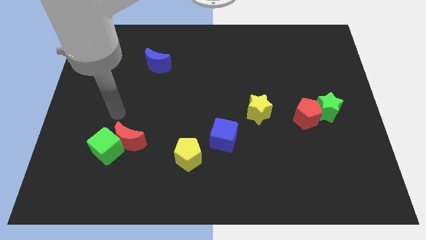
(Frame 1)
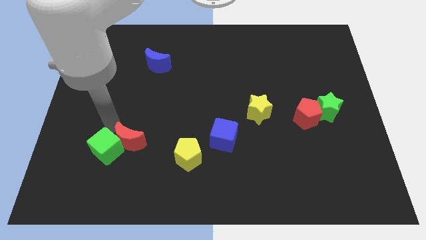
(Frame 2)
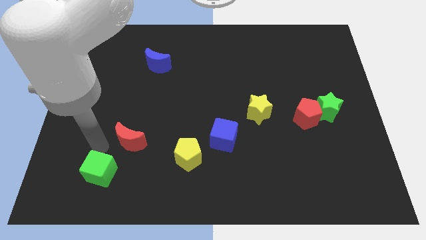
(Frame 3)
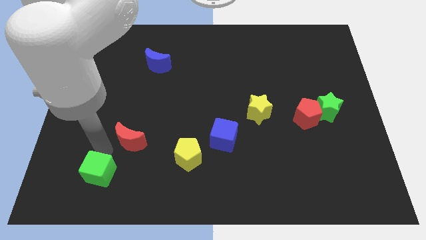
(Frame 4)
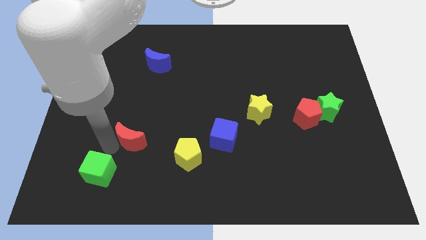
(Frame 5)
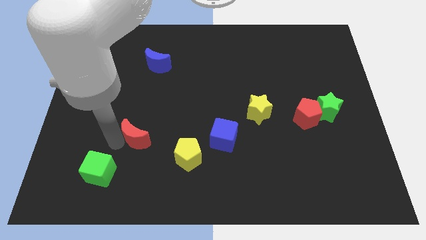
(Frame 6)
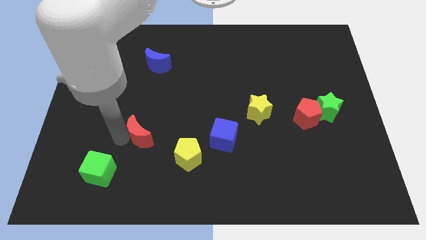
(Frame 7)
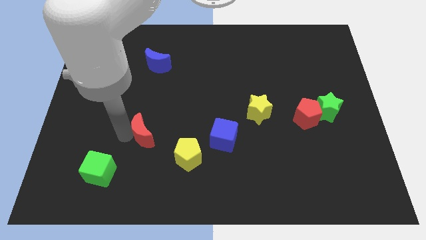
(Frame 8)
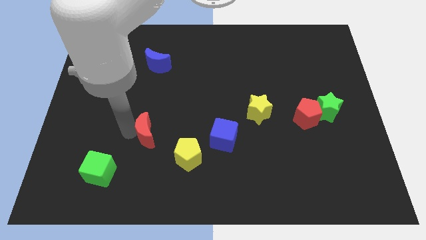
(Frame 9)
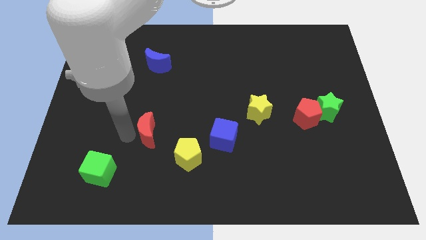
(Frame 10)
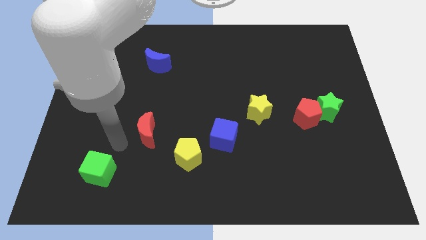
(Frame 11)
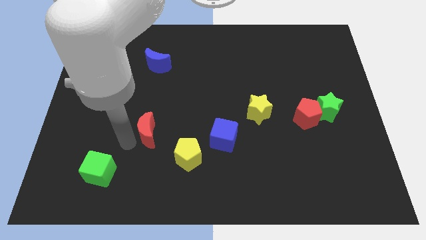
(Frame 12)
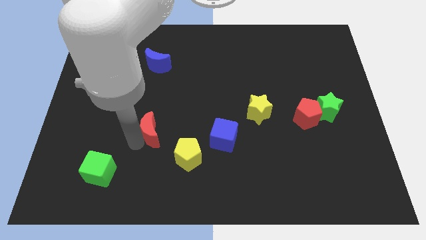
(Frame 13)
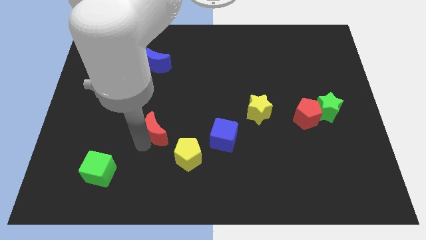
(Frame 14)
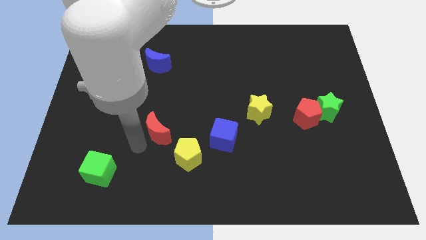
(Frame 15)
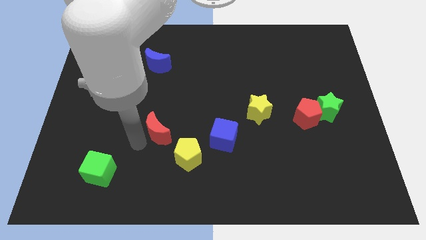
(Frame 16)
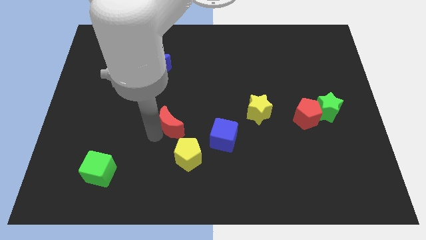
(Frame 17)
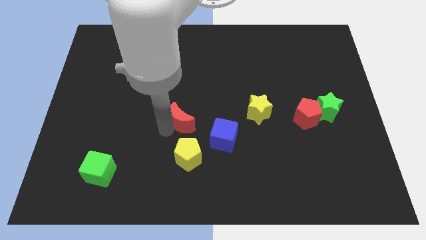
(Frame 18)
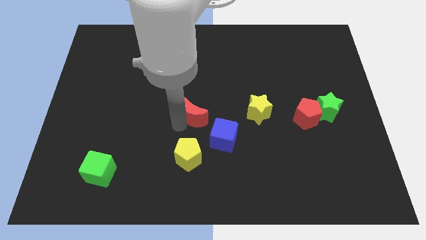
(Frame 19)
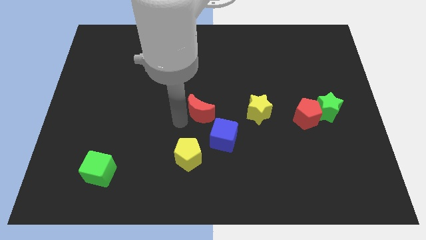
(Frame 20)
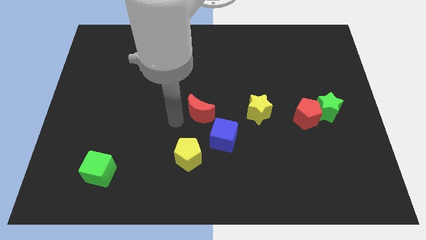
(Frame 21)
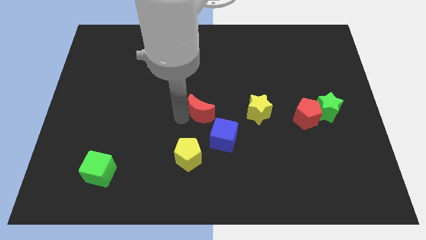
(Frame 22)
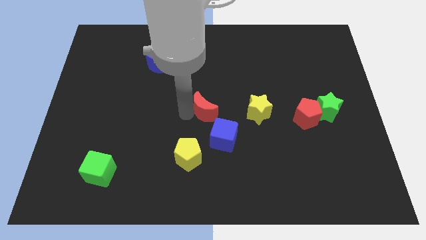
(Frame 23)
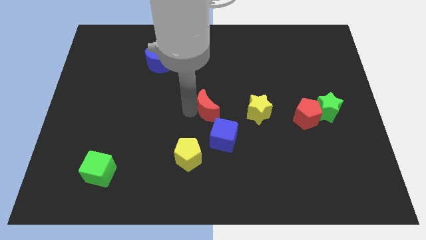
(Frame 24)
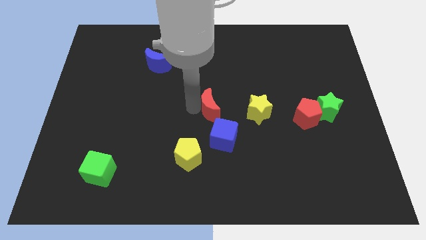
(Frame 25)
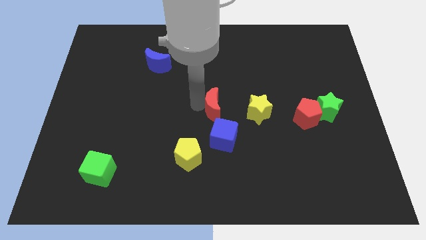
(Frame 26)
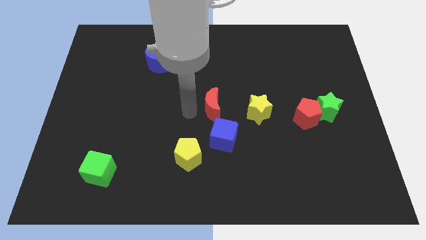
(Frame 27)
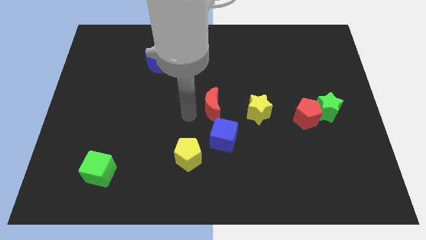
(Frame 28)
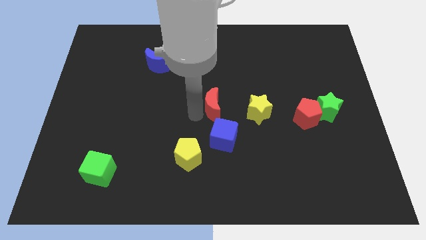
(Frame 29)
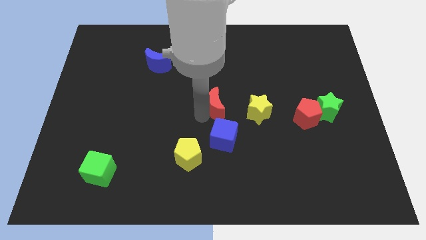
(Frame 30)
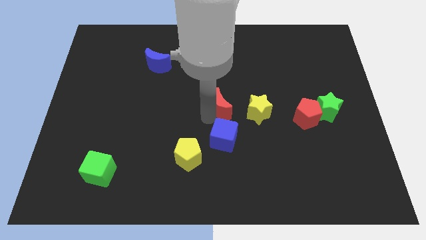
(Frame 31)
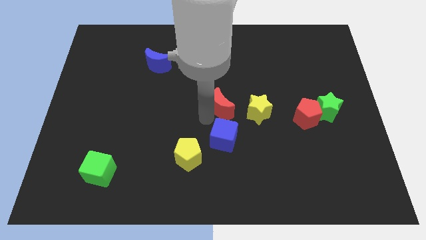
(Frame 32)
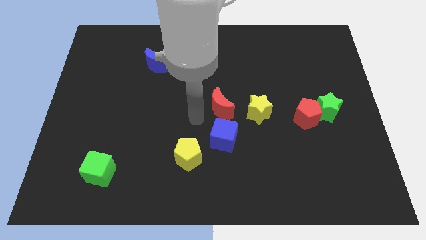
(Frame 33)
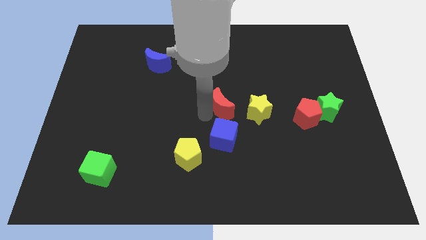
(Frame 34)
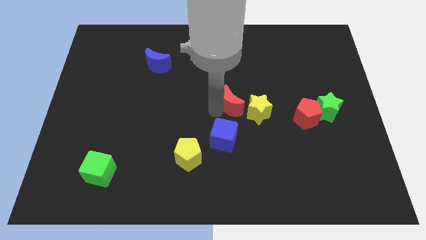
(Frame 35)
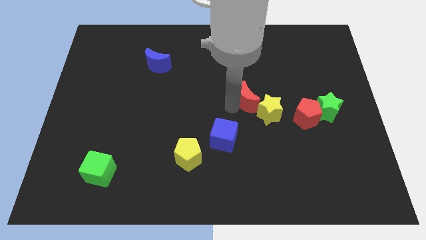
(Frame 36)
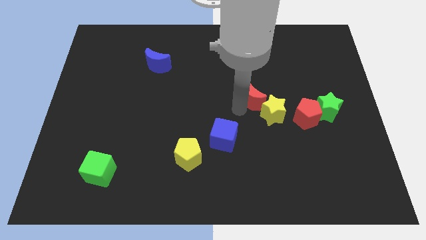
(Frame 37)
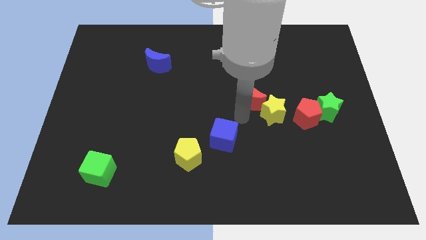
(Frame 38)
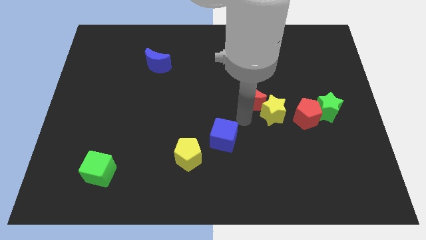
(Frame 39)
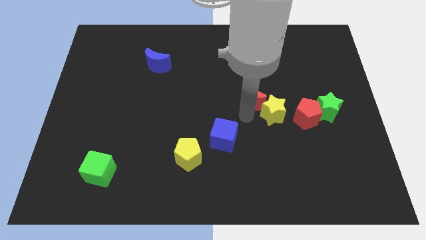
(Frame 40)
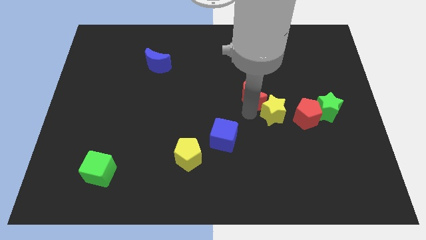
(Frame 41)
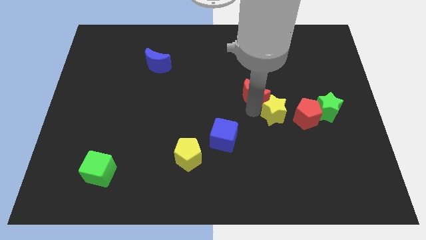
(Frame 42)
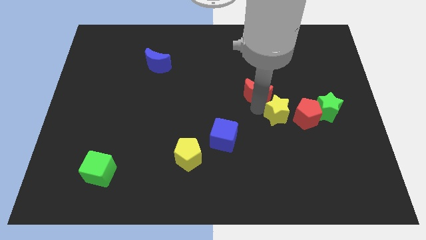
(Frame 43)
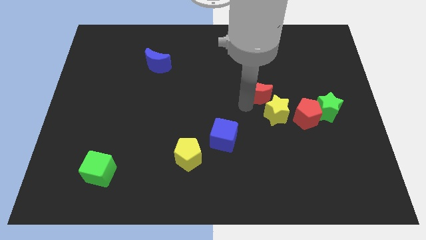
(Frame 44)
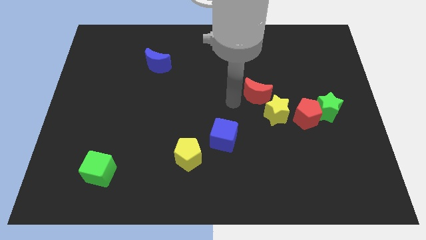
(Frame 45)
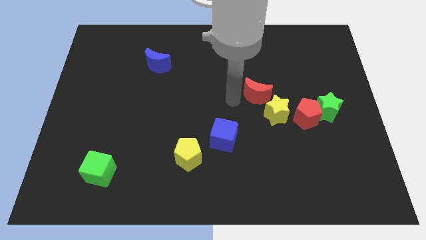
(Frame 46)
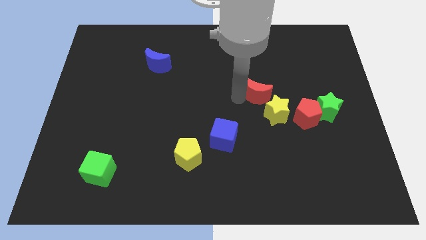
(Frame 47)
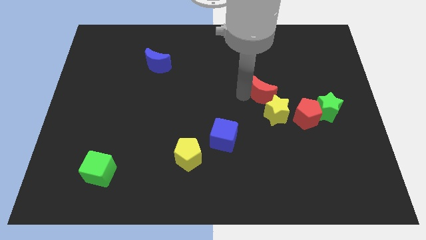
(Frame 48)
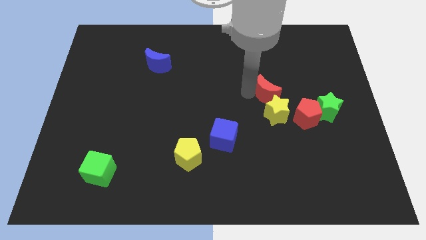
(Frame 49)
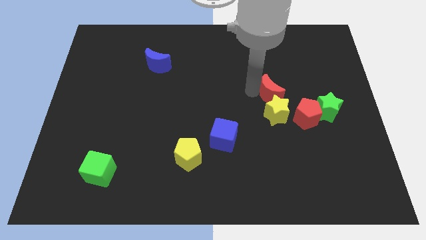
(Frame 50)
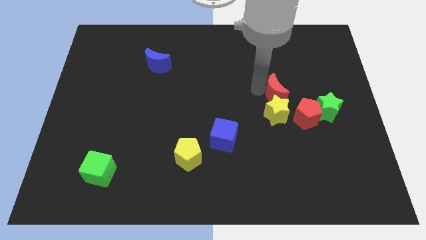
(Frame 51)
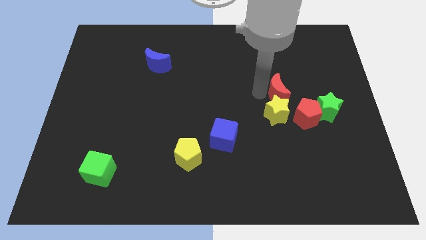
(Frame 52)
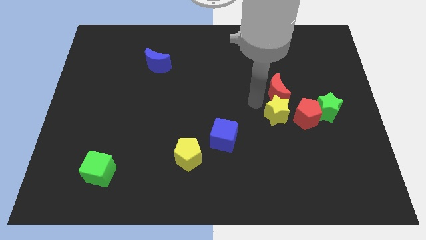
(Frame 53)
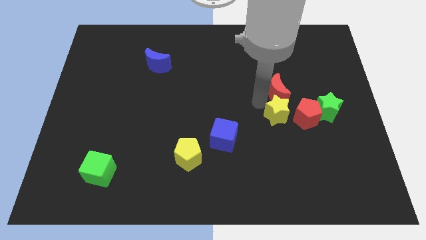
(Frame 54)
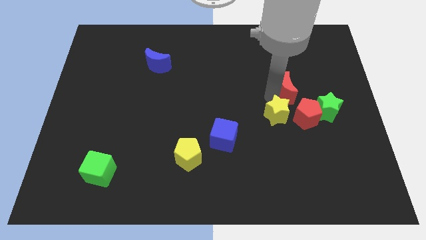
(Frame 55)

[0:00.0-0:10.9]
slide the red moon to the top of the red pentagon

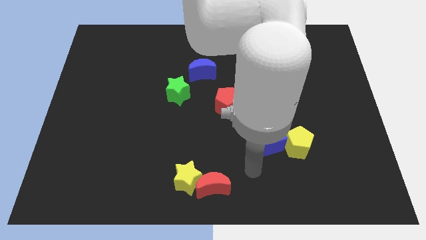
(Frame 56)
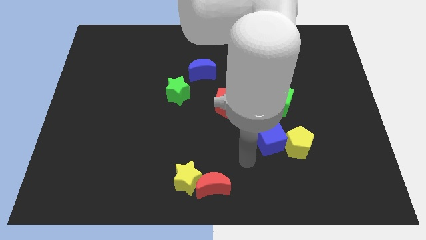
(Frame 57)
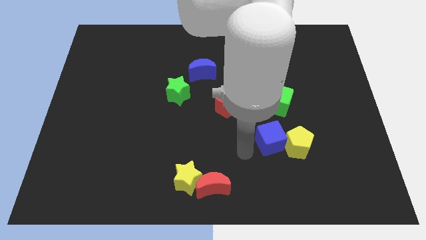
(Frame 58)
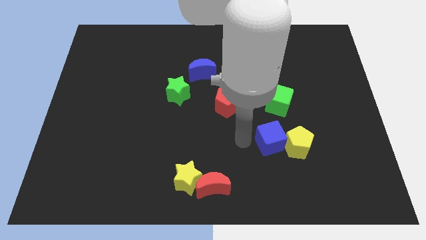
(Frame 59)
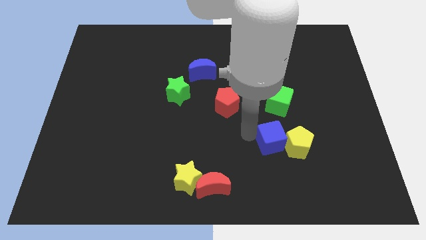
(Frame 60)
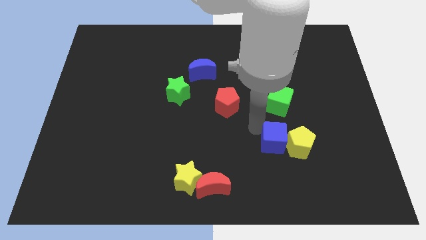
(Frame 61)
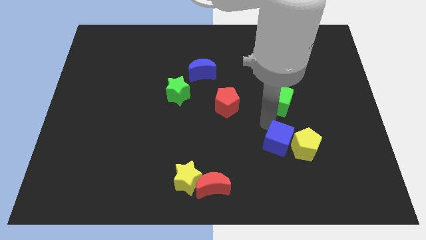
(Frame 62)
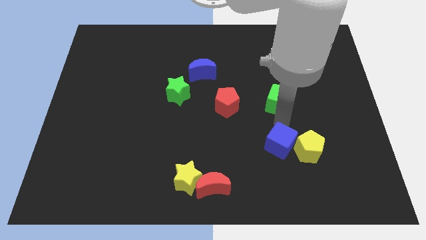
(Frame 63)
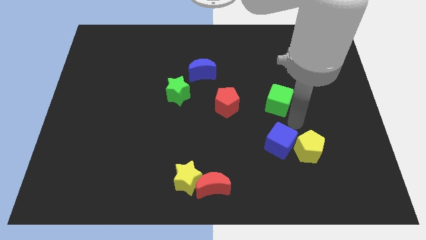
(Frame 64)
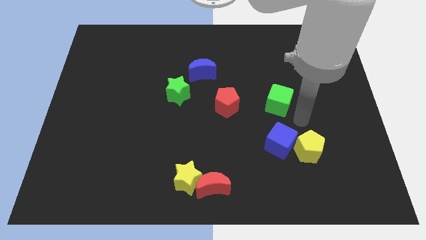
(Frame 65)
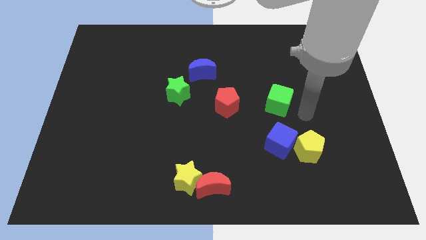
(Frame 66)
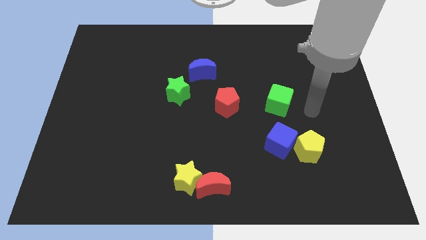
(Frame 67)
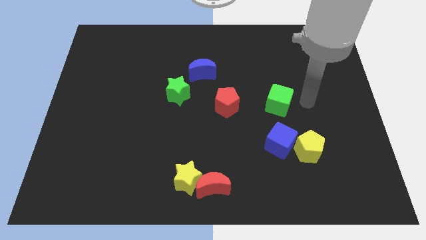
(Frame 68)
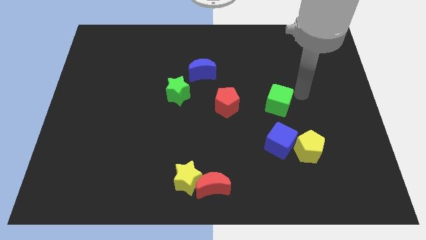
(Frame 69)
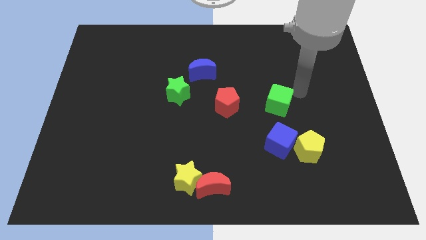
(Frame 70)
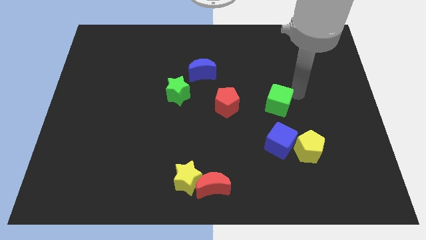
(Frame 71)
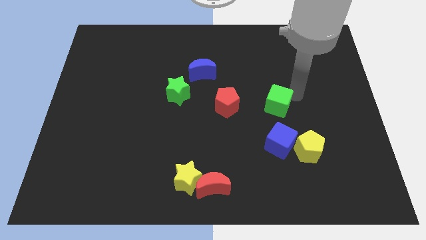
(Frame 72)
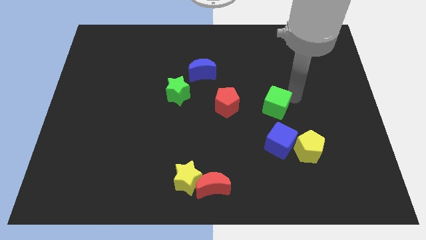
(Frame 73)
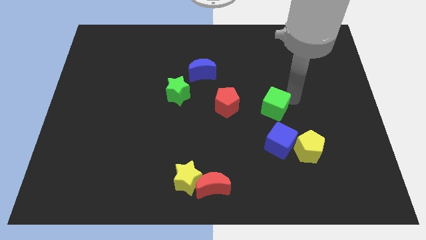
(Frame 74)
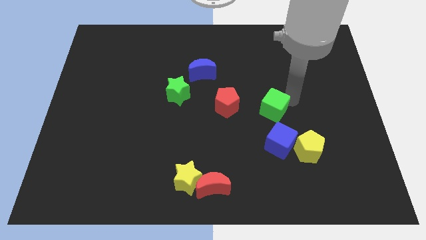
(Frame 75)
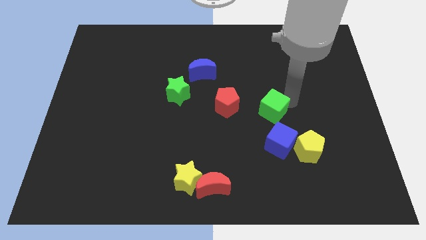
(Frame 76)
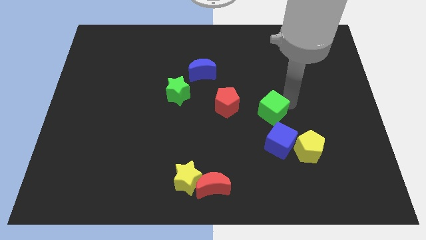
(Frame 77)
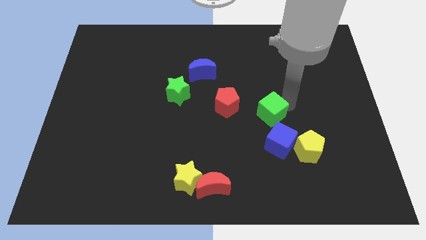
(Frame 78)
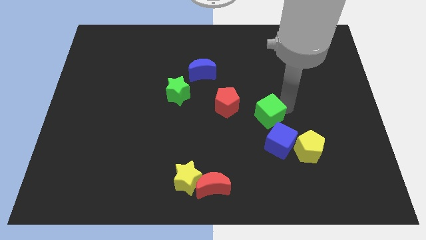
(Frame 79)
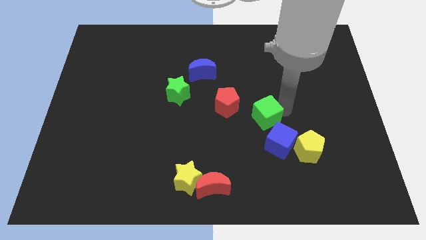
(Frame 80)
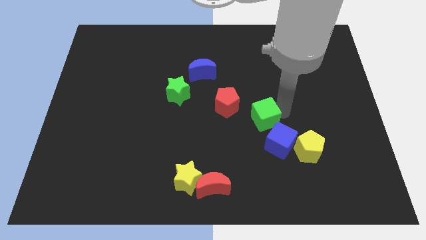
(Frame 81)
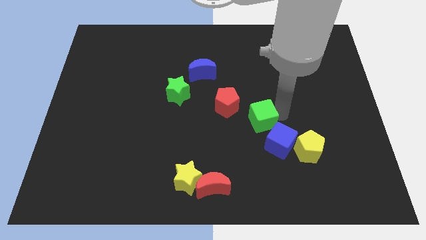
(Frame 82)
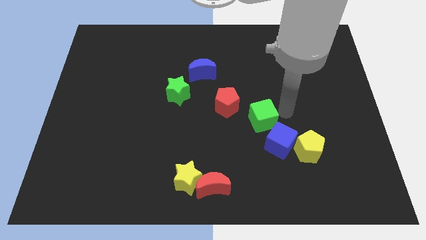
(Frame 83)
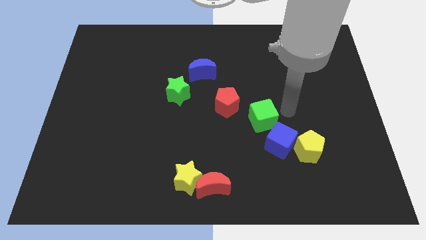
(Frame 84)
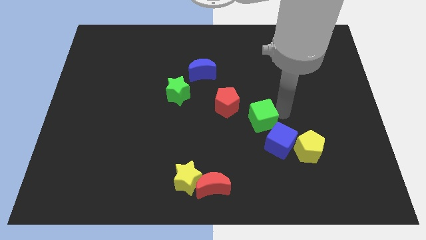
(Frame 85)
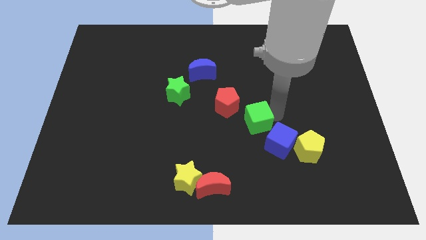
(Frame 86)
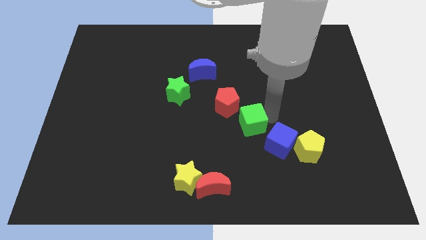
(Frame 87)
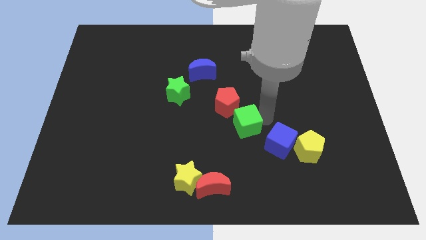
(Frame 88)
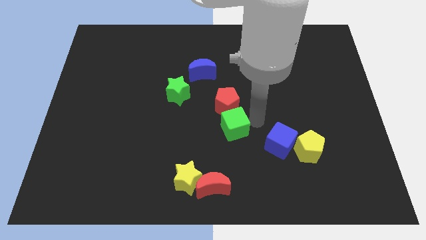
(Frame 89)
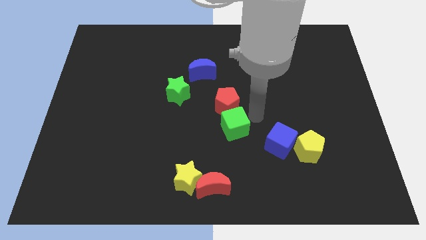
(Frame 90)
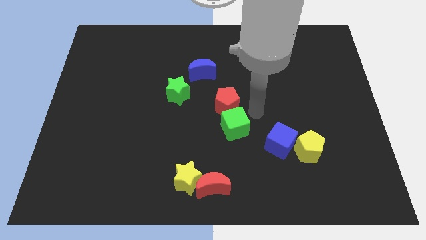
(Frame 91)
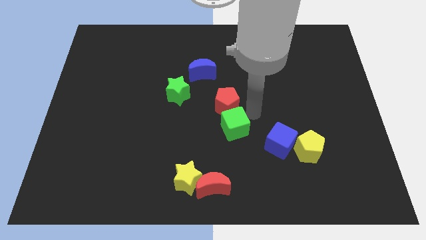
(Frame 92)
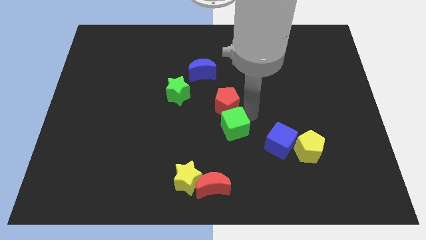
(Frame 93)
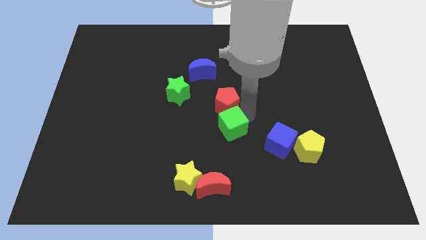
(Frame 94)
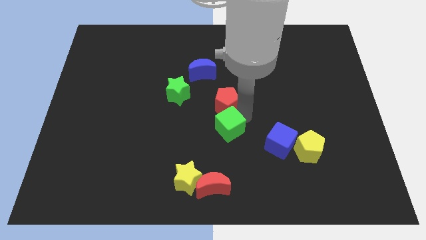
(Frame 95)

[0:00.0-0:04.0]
move the green cube to the top side of the red moon
